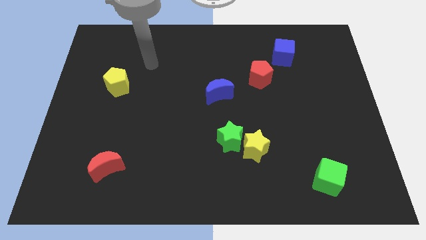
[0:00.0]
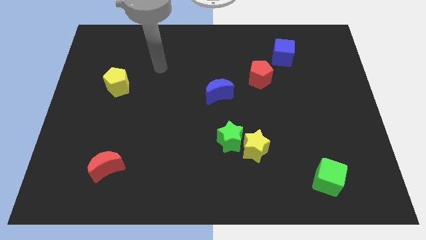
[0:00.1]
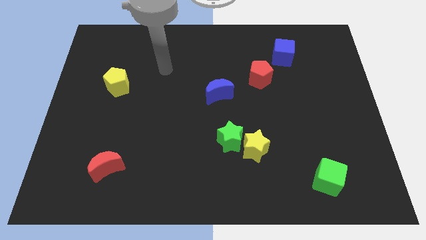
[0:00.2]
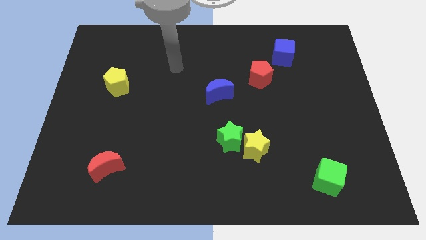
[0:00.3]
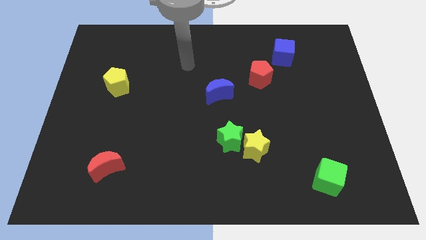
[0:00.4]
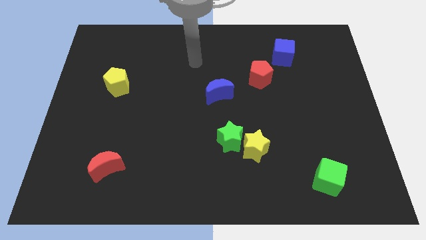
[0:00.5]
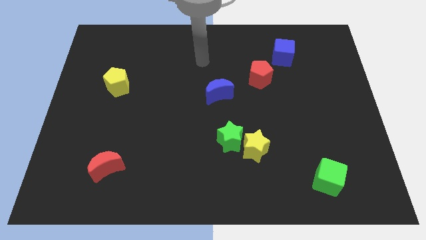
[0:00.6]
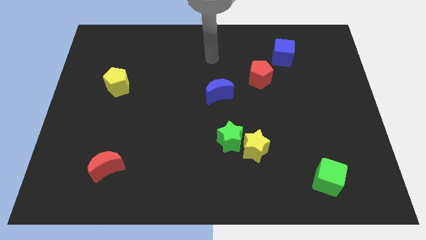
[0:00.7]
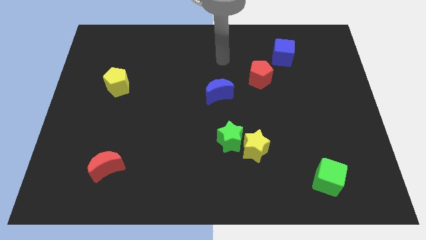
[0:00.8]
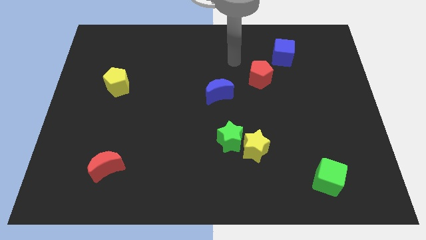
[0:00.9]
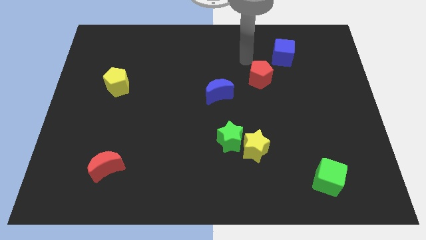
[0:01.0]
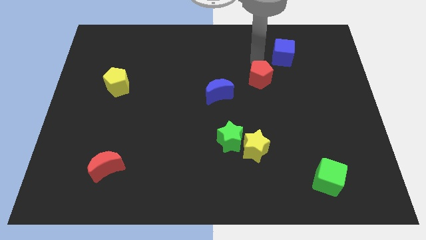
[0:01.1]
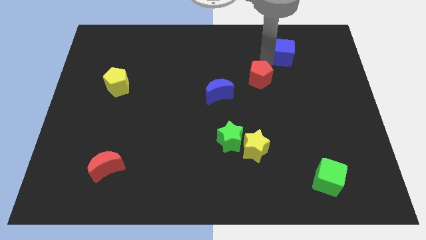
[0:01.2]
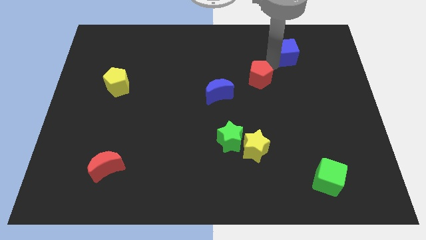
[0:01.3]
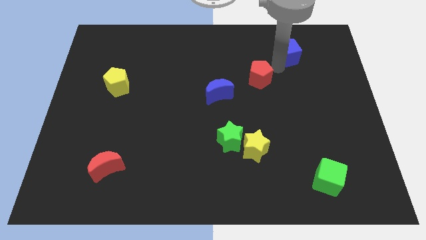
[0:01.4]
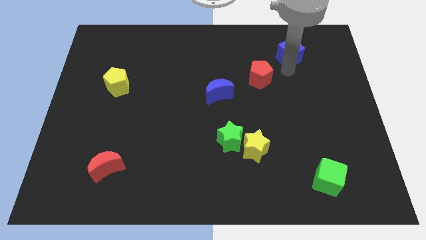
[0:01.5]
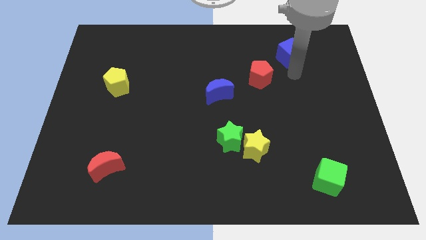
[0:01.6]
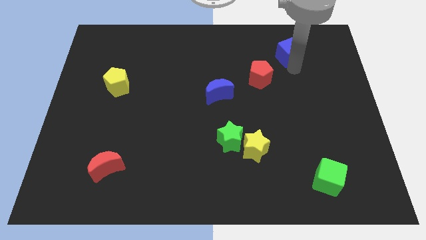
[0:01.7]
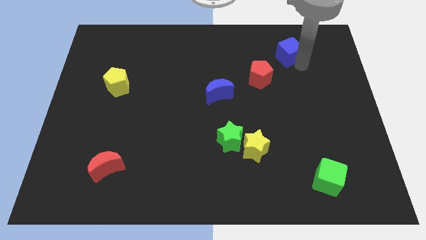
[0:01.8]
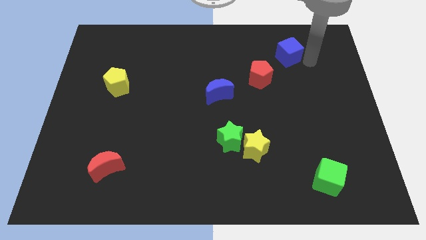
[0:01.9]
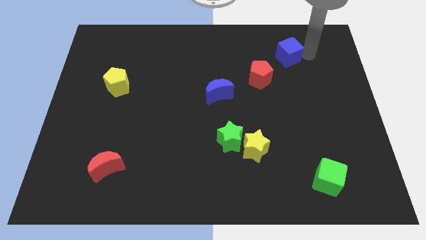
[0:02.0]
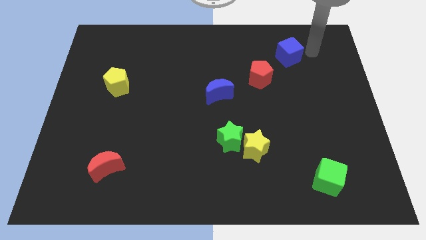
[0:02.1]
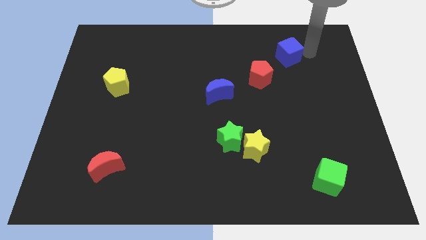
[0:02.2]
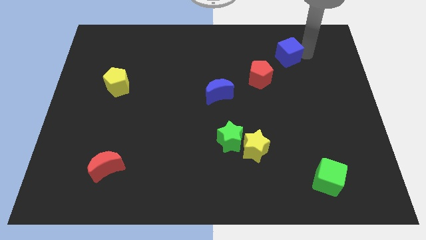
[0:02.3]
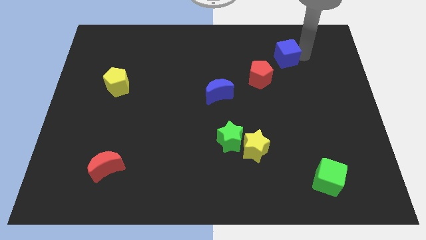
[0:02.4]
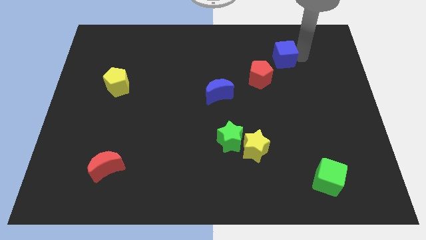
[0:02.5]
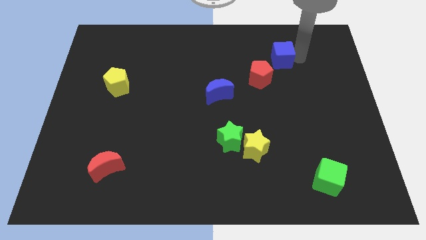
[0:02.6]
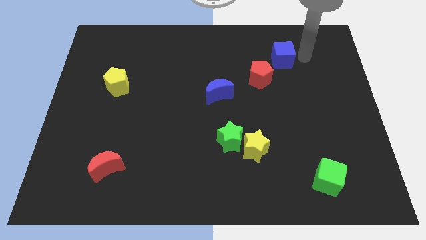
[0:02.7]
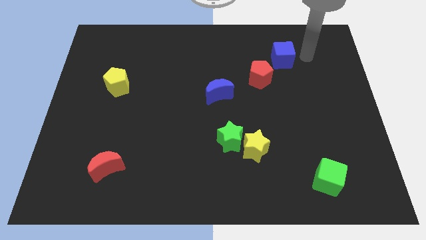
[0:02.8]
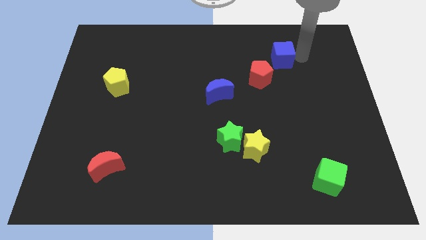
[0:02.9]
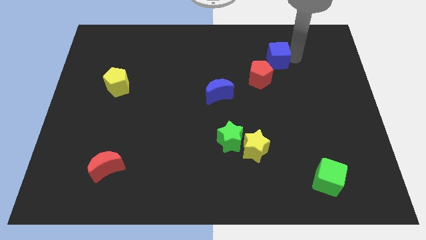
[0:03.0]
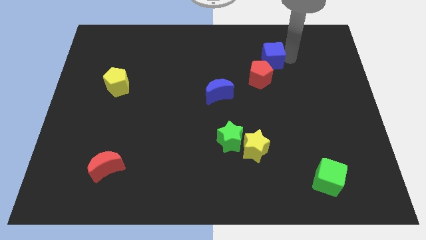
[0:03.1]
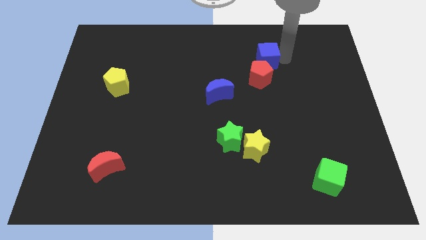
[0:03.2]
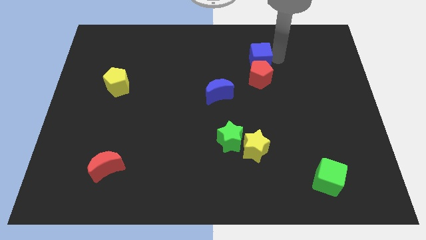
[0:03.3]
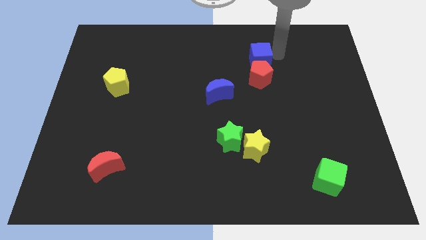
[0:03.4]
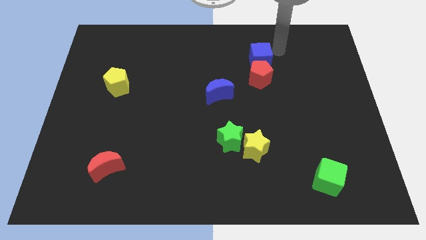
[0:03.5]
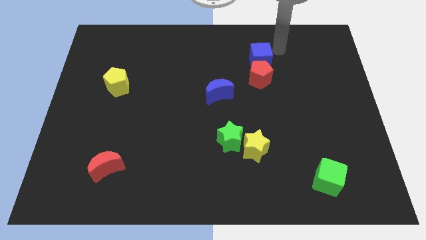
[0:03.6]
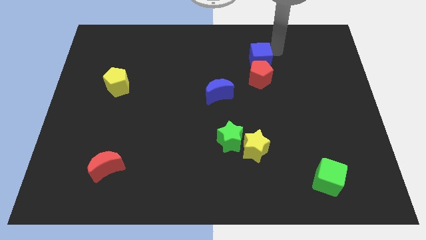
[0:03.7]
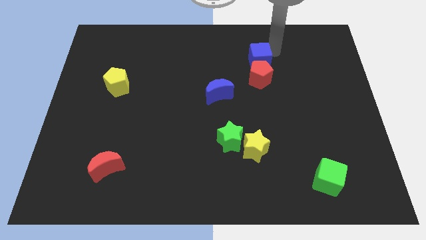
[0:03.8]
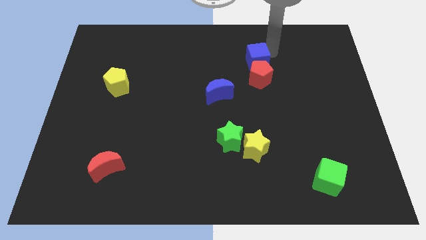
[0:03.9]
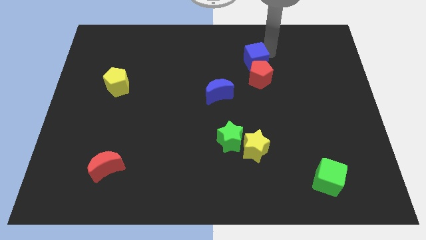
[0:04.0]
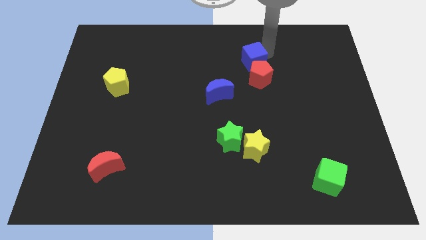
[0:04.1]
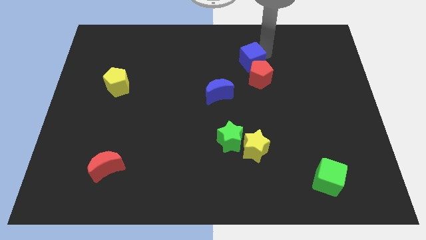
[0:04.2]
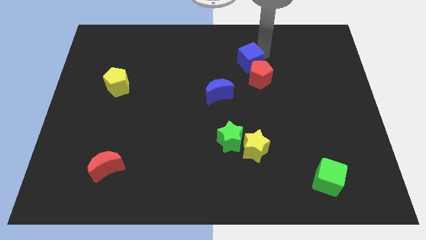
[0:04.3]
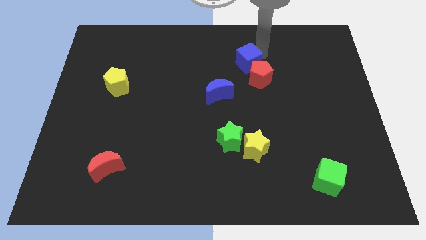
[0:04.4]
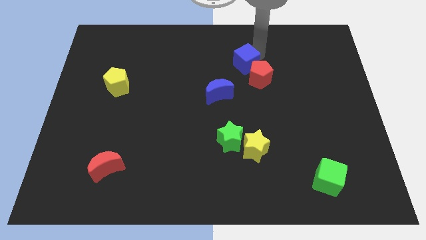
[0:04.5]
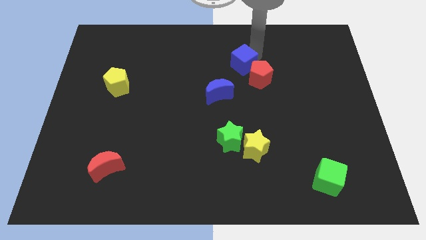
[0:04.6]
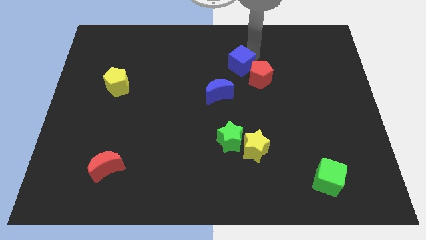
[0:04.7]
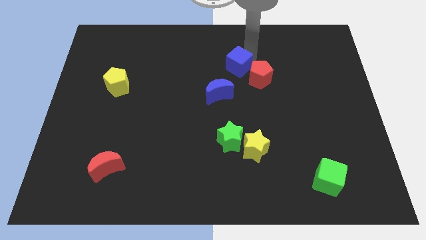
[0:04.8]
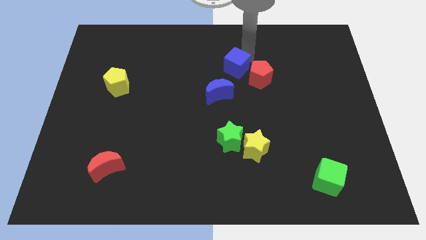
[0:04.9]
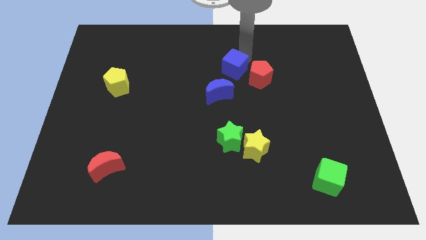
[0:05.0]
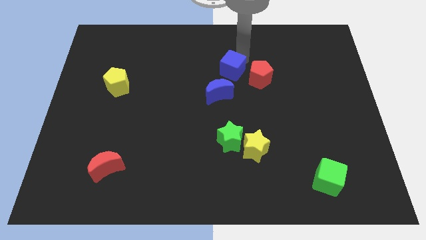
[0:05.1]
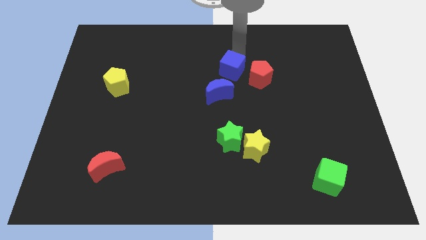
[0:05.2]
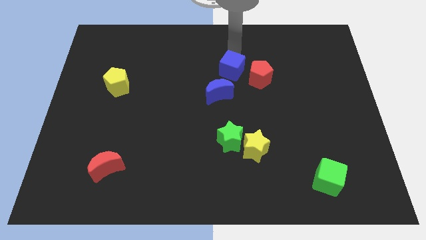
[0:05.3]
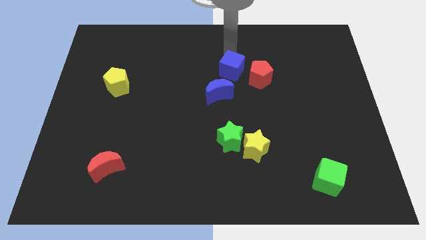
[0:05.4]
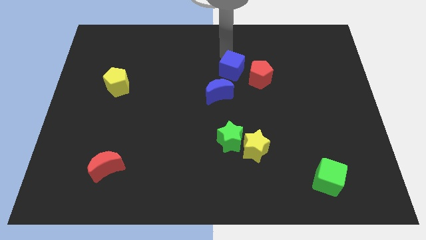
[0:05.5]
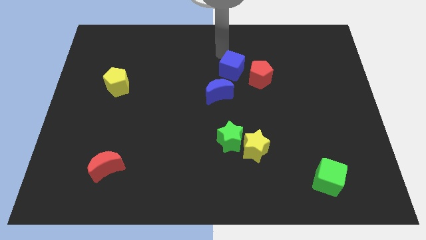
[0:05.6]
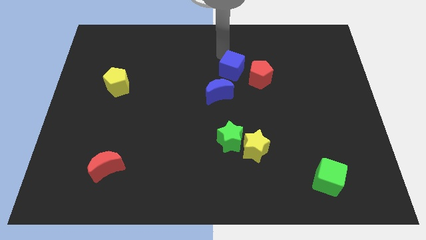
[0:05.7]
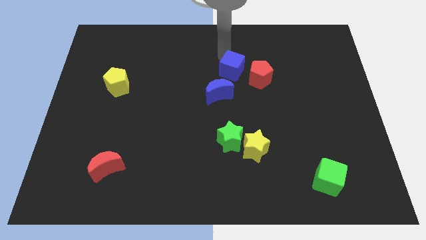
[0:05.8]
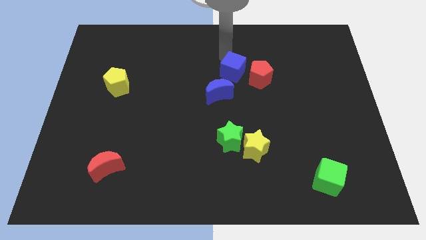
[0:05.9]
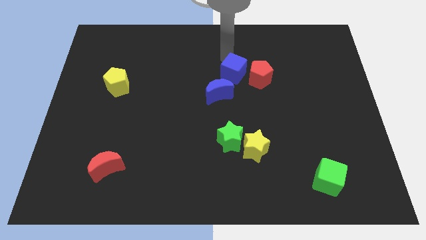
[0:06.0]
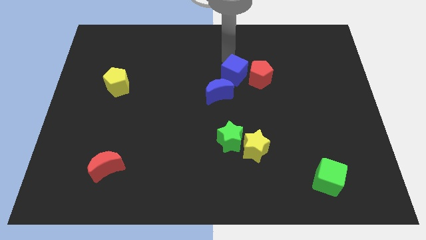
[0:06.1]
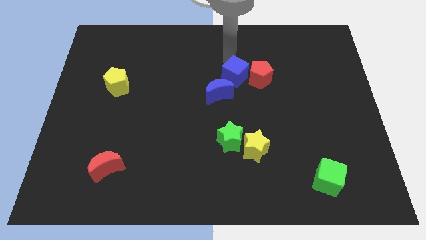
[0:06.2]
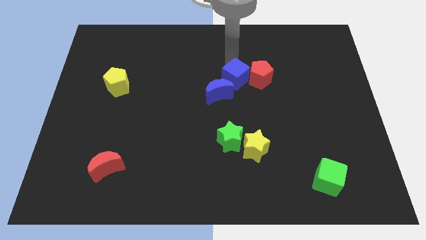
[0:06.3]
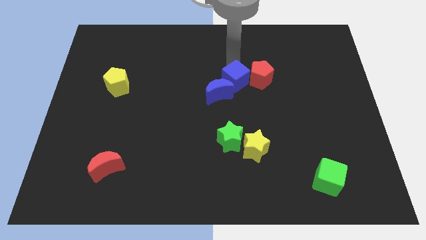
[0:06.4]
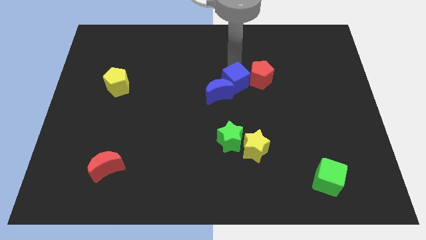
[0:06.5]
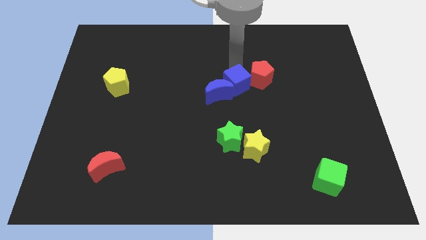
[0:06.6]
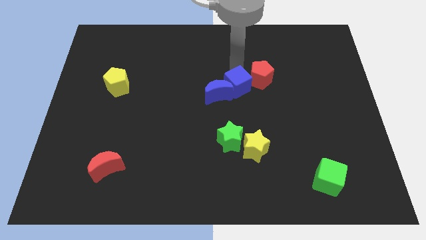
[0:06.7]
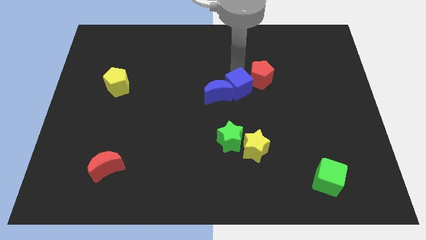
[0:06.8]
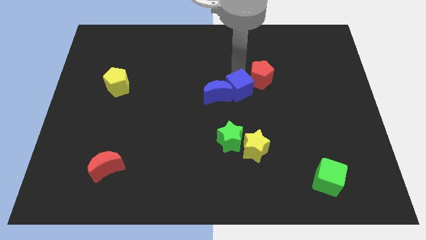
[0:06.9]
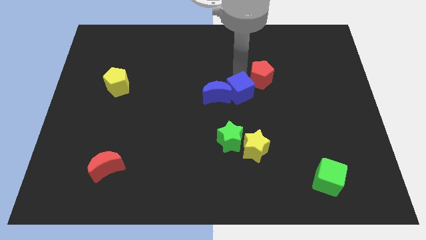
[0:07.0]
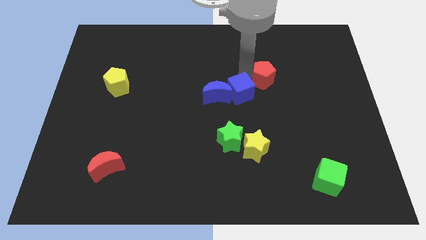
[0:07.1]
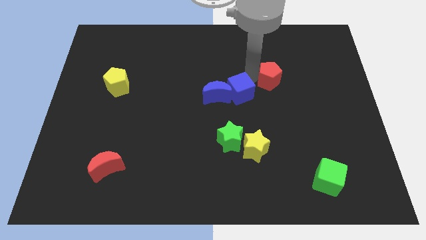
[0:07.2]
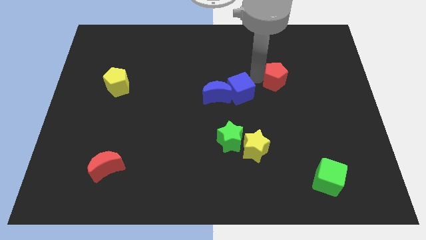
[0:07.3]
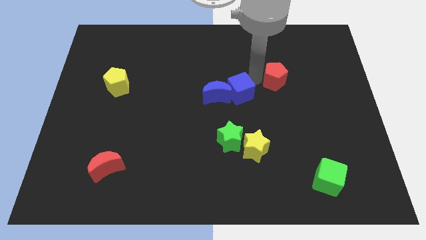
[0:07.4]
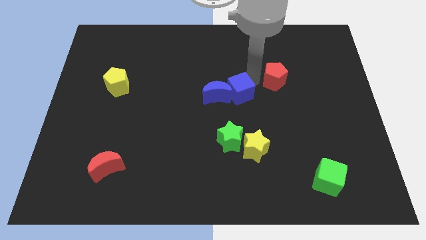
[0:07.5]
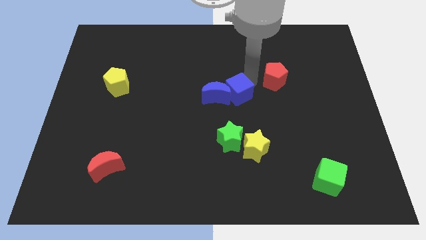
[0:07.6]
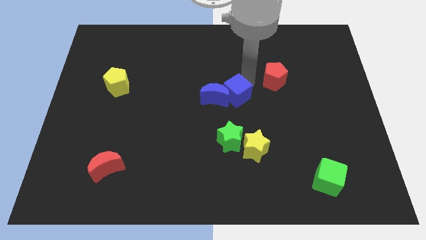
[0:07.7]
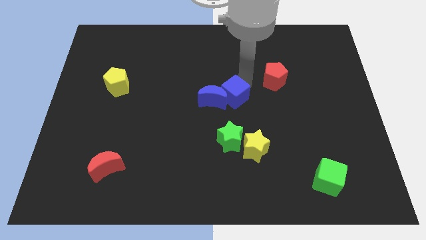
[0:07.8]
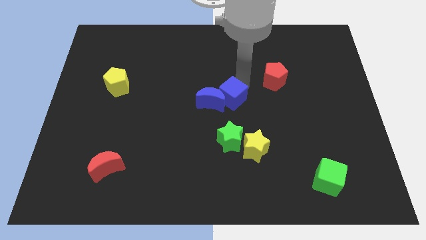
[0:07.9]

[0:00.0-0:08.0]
move the blue cube downwards and left diagonally

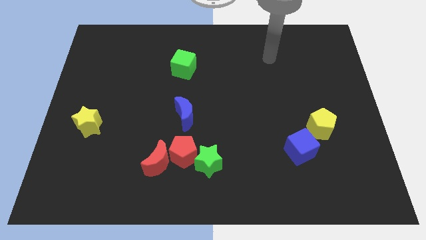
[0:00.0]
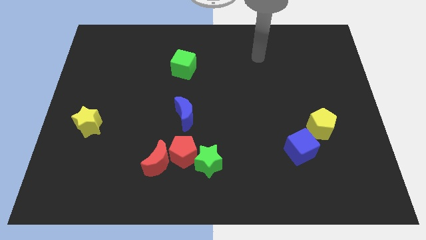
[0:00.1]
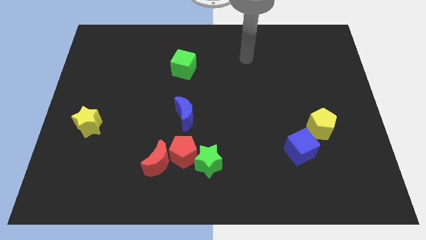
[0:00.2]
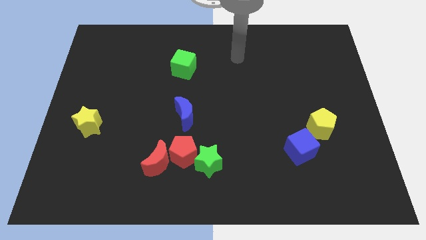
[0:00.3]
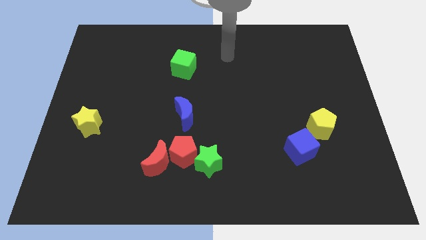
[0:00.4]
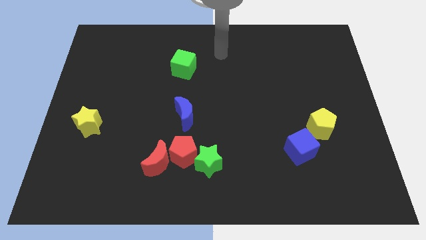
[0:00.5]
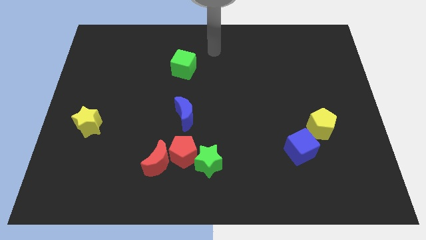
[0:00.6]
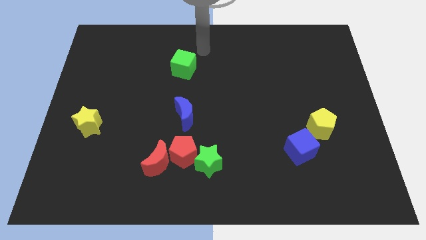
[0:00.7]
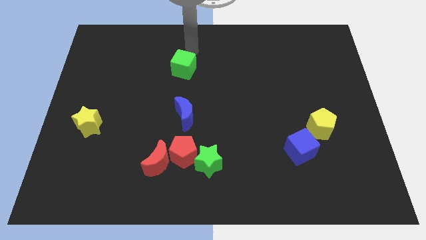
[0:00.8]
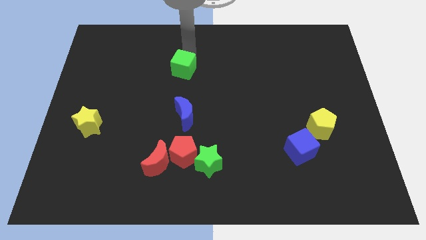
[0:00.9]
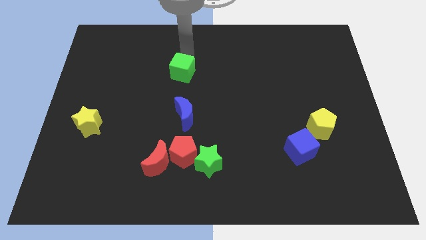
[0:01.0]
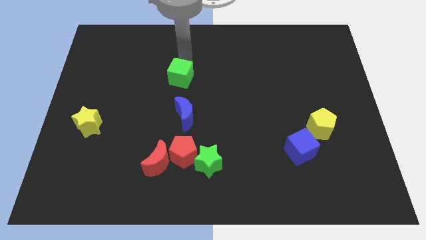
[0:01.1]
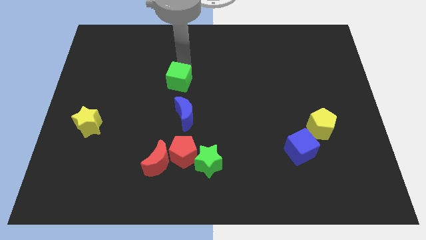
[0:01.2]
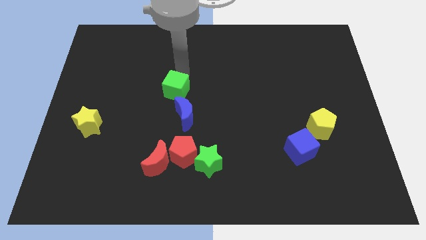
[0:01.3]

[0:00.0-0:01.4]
move the green cube down slightly
